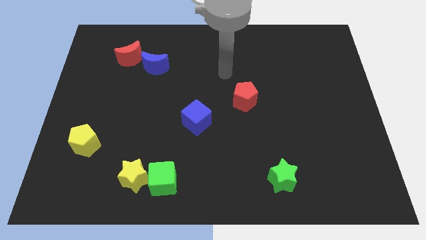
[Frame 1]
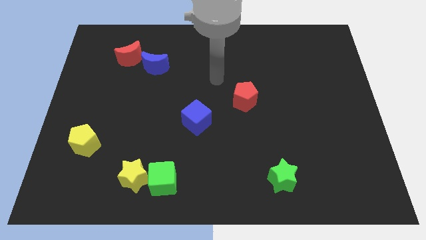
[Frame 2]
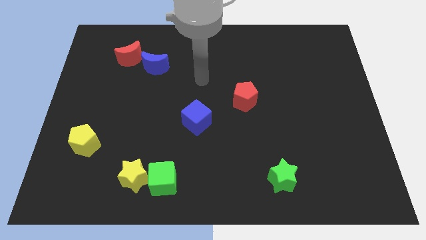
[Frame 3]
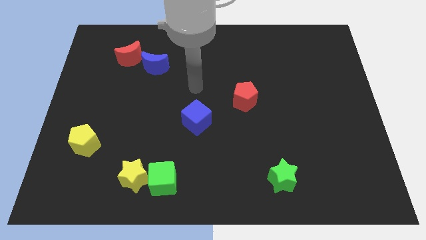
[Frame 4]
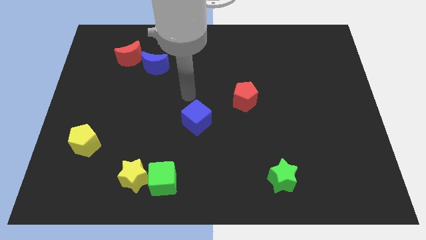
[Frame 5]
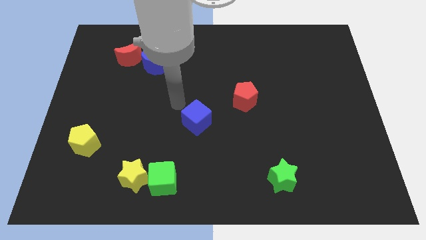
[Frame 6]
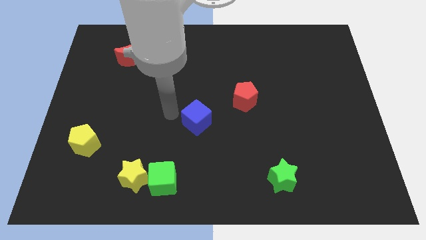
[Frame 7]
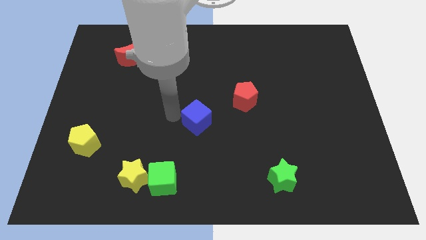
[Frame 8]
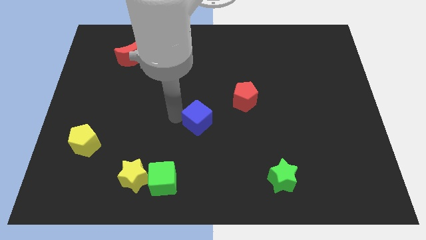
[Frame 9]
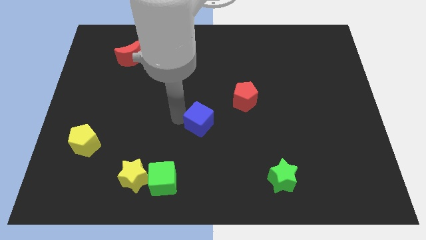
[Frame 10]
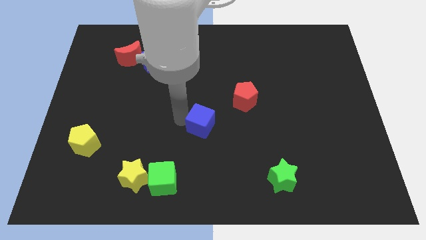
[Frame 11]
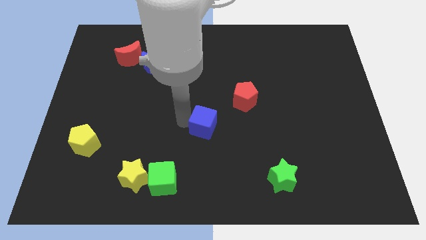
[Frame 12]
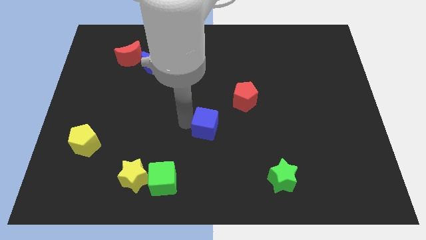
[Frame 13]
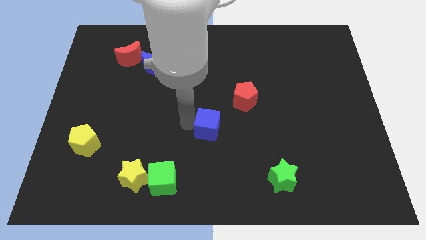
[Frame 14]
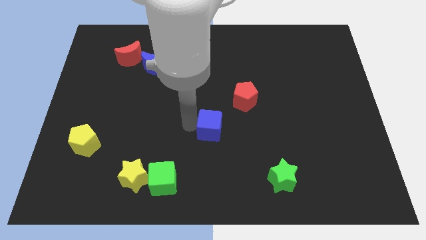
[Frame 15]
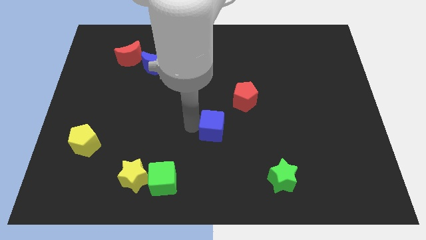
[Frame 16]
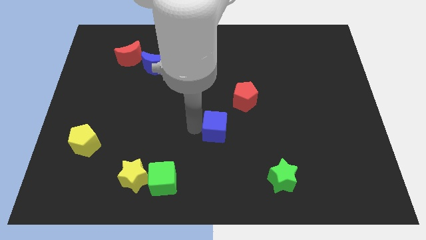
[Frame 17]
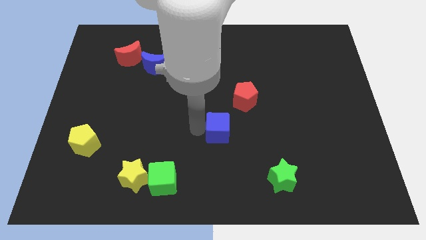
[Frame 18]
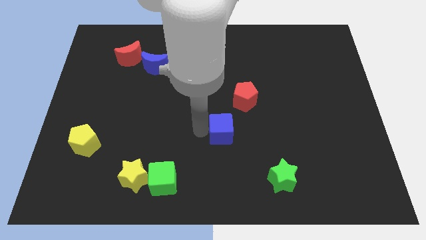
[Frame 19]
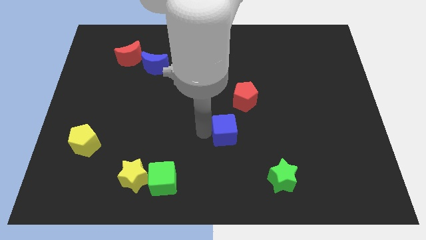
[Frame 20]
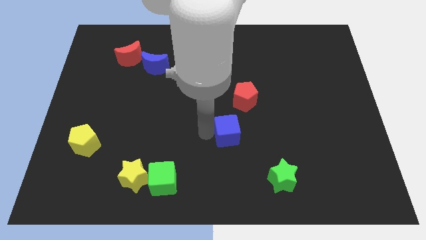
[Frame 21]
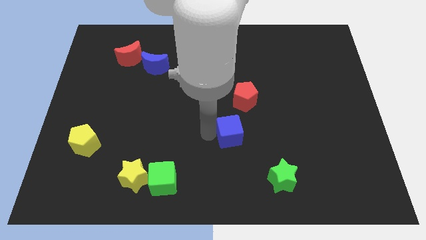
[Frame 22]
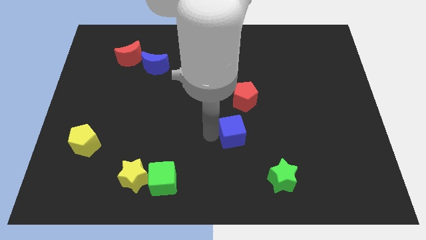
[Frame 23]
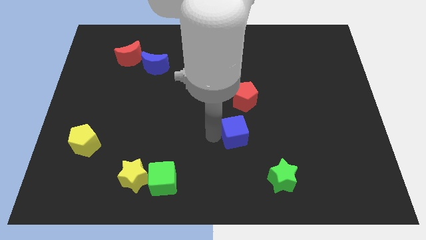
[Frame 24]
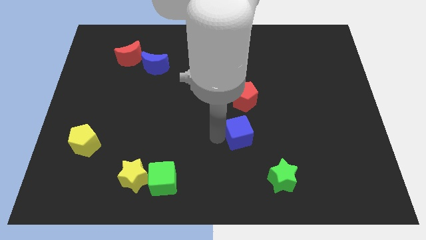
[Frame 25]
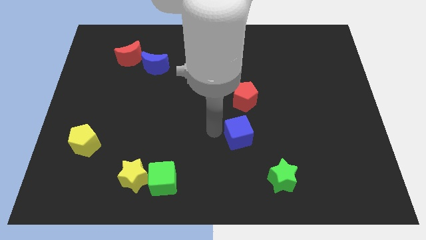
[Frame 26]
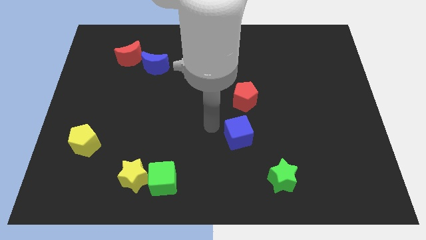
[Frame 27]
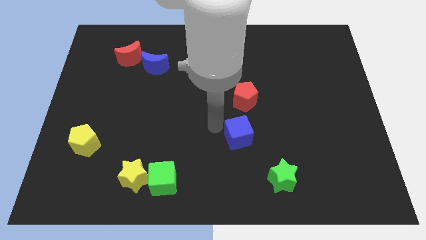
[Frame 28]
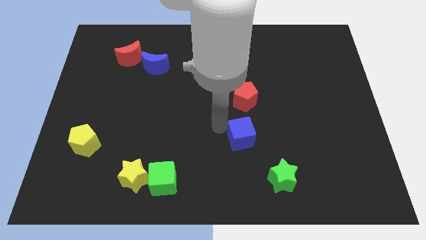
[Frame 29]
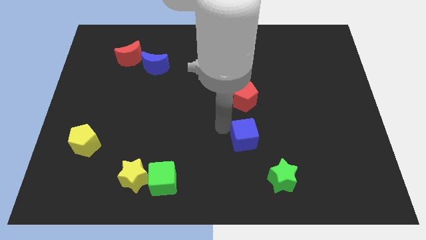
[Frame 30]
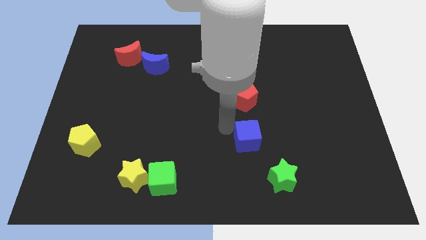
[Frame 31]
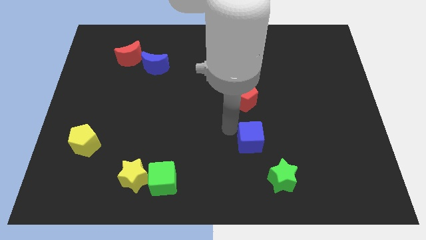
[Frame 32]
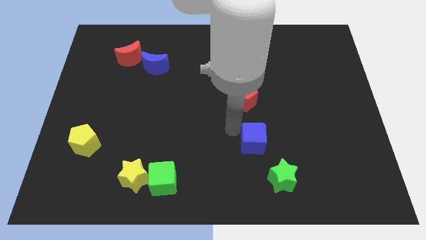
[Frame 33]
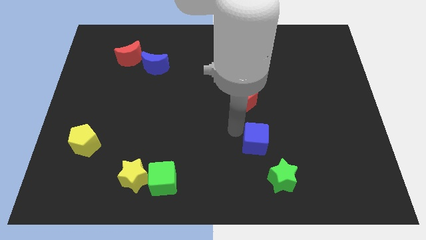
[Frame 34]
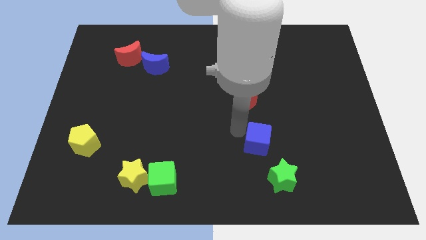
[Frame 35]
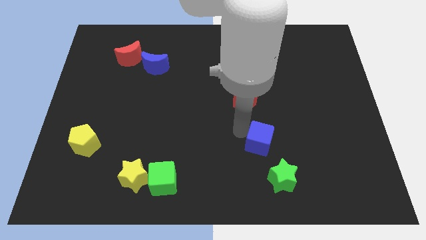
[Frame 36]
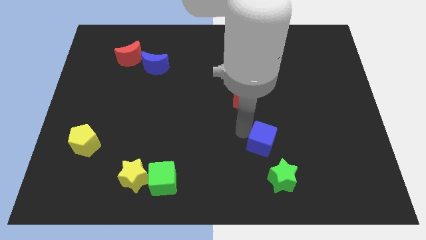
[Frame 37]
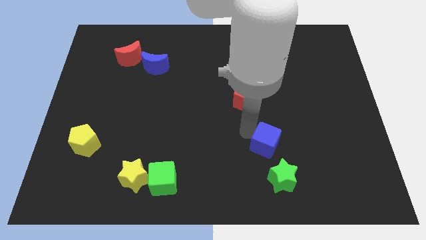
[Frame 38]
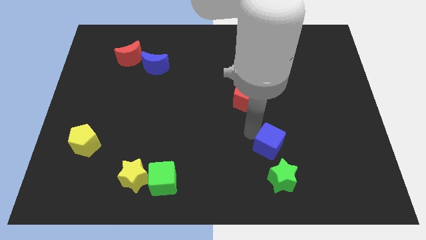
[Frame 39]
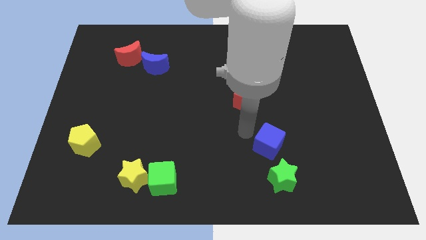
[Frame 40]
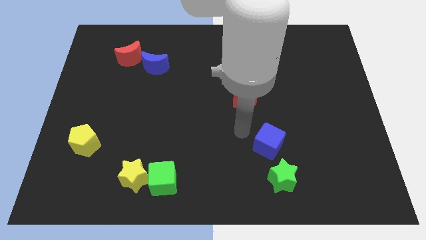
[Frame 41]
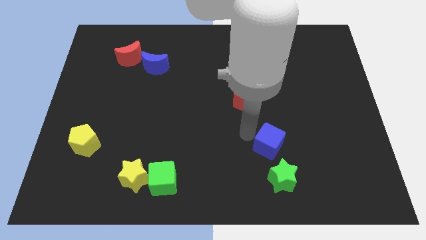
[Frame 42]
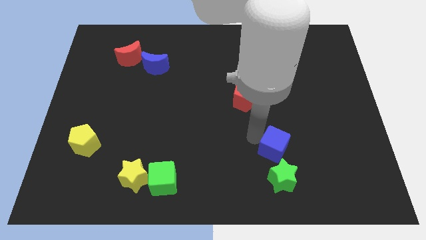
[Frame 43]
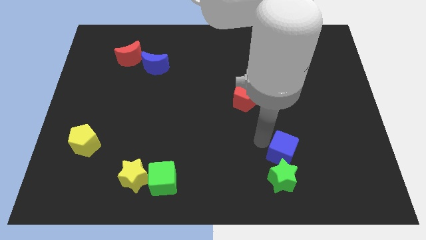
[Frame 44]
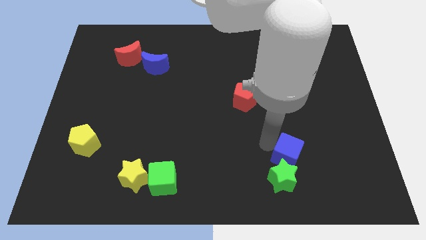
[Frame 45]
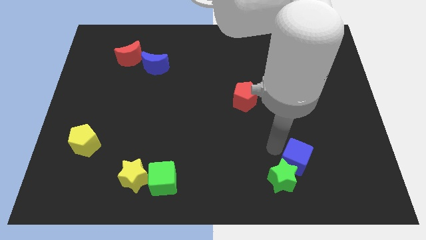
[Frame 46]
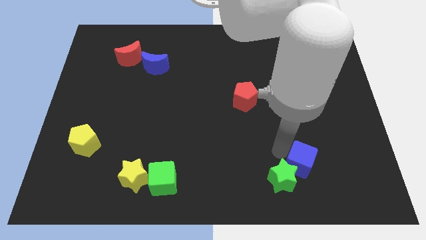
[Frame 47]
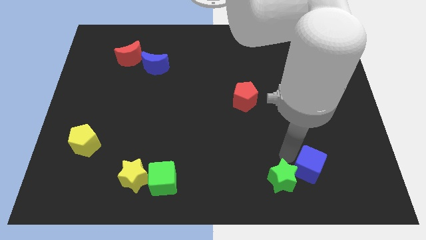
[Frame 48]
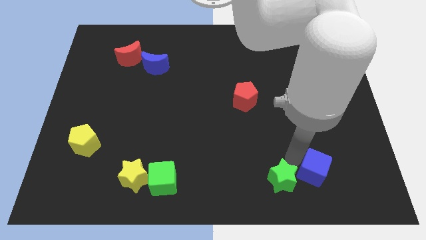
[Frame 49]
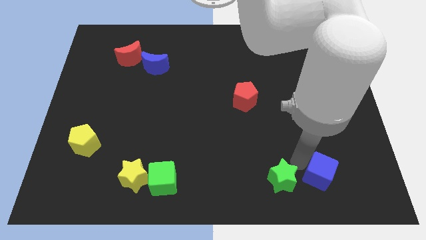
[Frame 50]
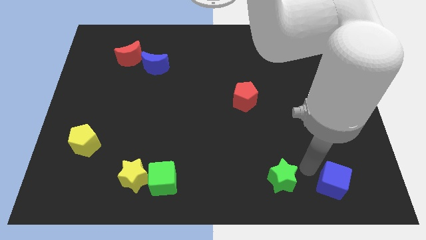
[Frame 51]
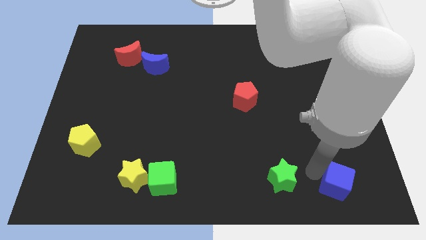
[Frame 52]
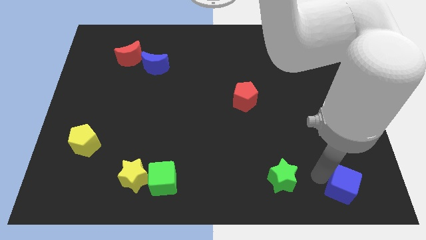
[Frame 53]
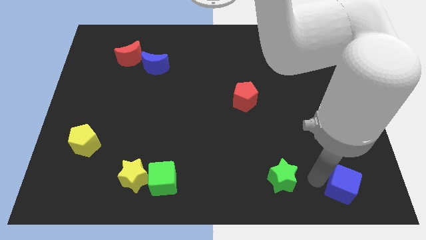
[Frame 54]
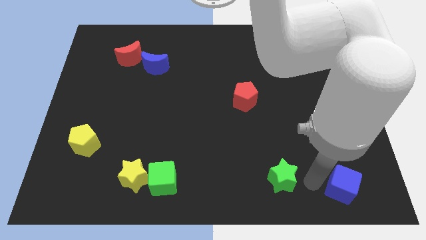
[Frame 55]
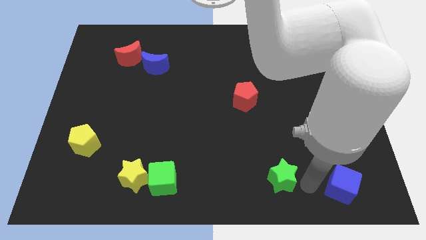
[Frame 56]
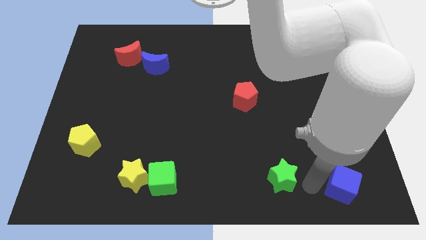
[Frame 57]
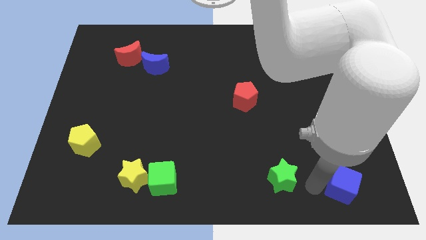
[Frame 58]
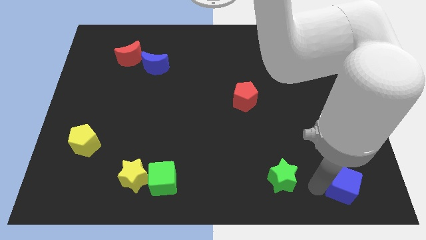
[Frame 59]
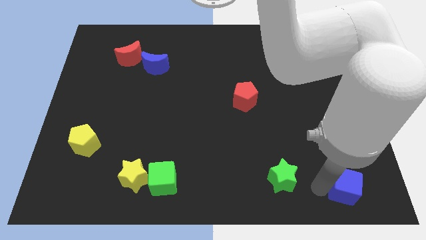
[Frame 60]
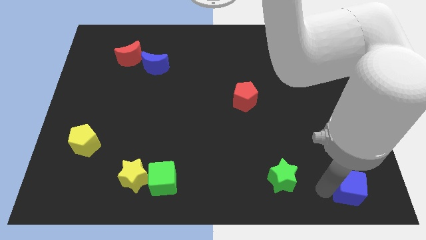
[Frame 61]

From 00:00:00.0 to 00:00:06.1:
put the blue cube to the lower right corner

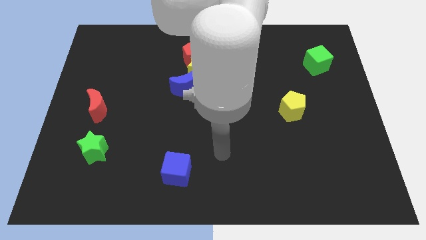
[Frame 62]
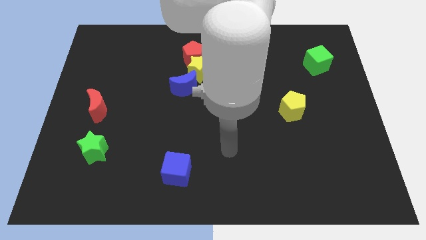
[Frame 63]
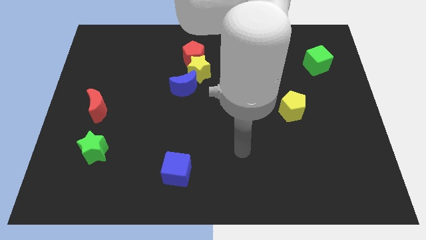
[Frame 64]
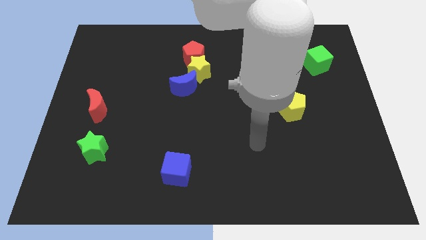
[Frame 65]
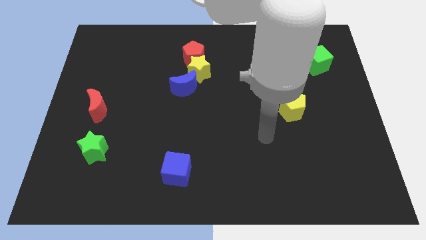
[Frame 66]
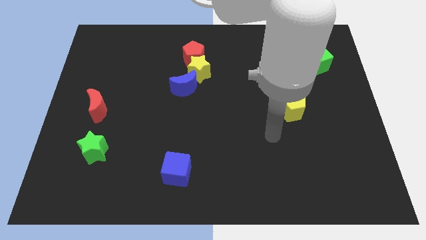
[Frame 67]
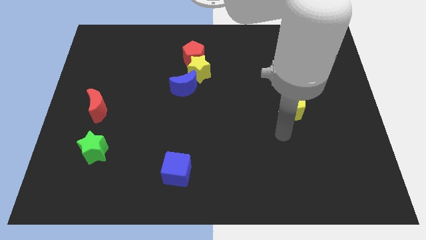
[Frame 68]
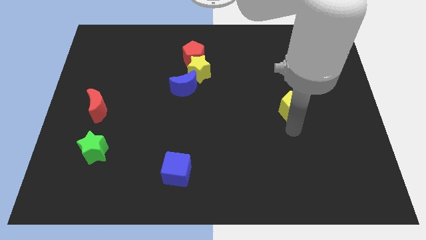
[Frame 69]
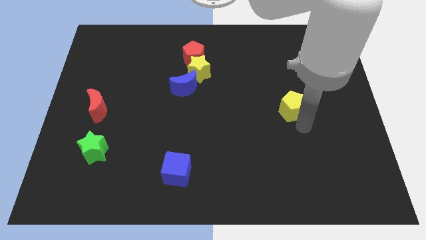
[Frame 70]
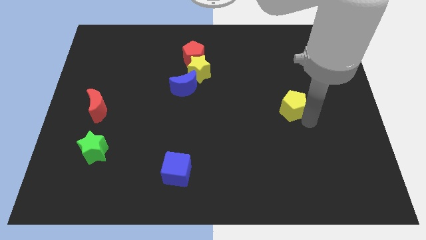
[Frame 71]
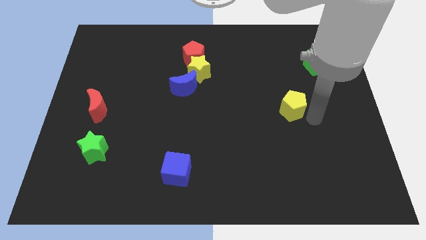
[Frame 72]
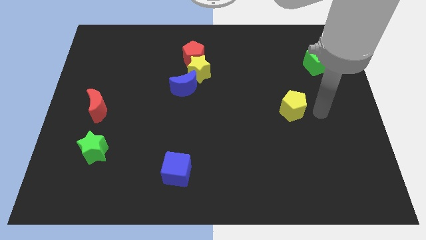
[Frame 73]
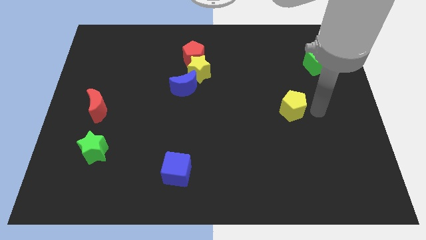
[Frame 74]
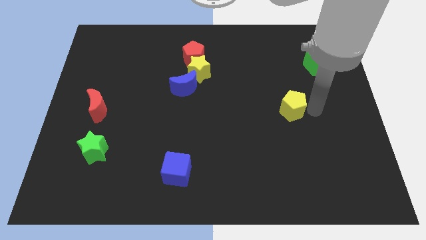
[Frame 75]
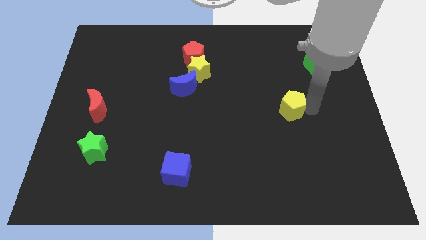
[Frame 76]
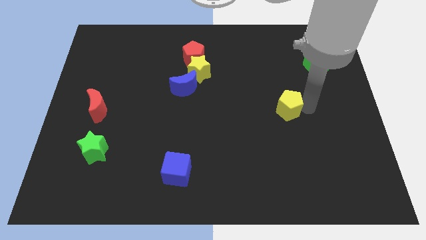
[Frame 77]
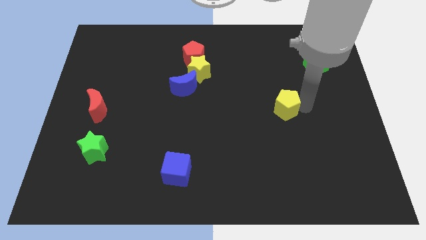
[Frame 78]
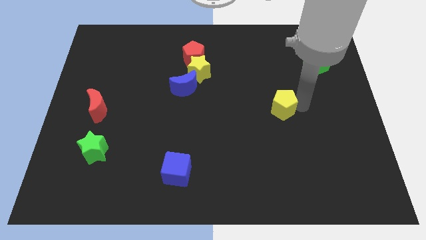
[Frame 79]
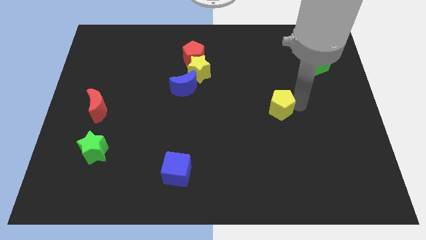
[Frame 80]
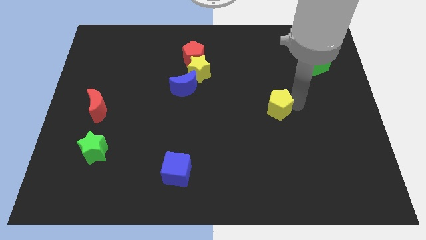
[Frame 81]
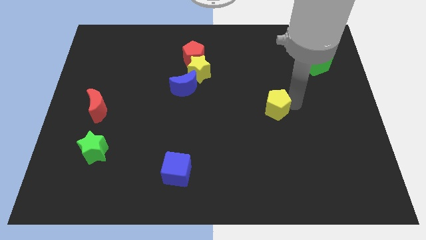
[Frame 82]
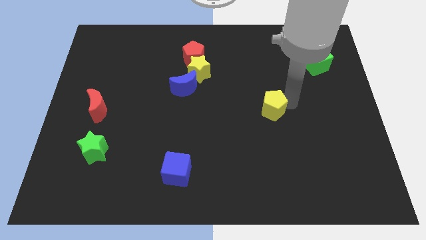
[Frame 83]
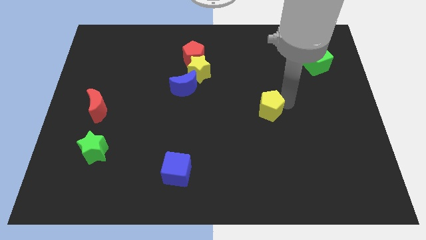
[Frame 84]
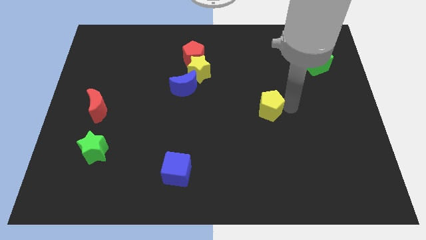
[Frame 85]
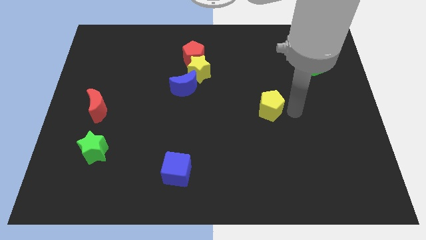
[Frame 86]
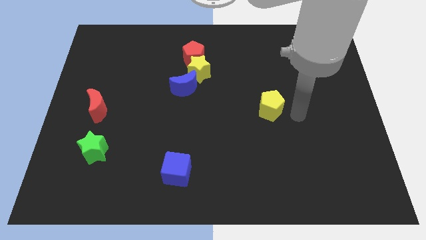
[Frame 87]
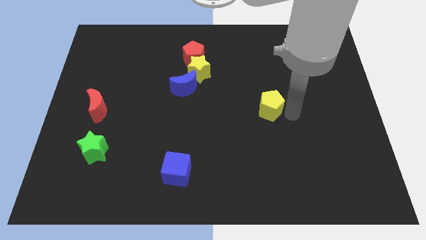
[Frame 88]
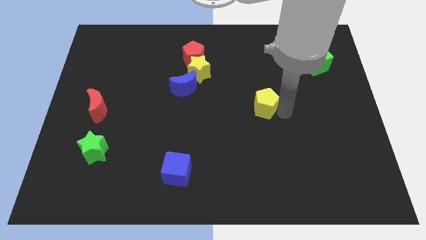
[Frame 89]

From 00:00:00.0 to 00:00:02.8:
push the yellow pentagon to the center
